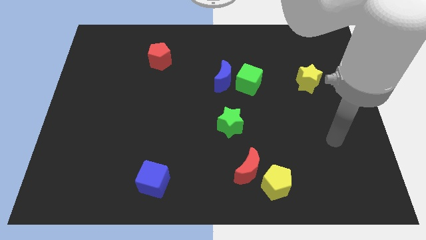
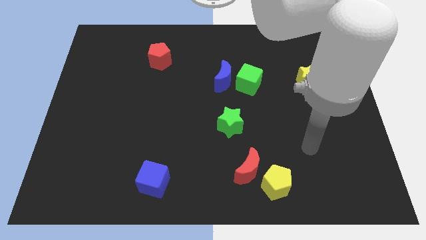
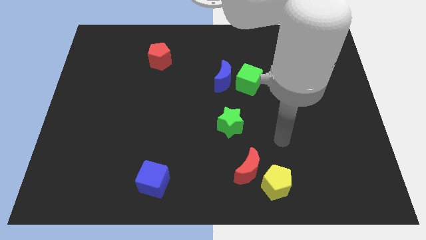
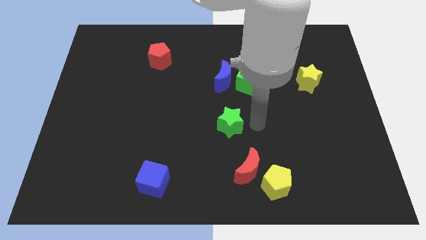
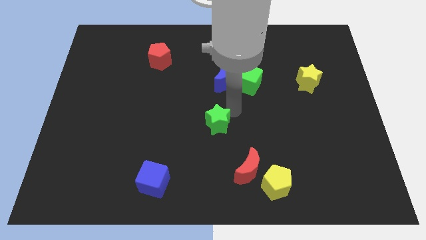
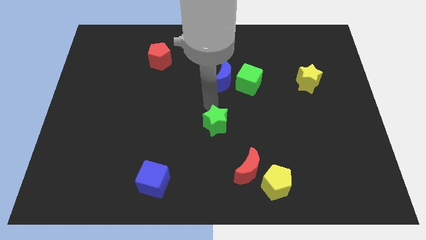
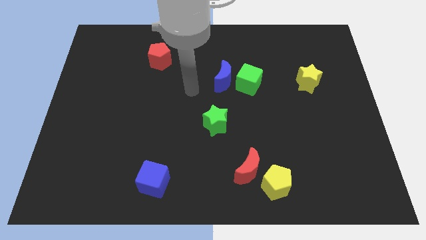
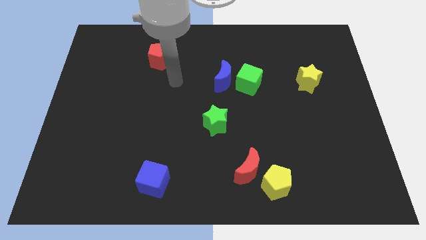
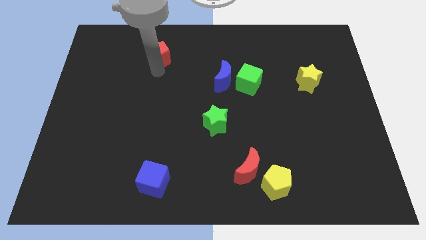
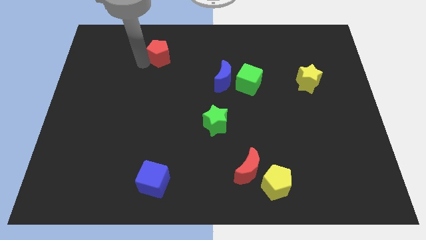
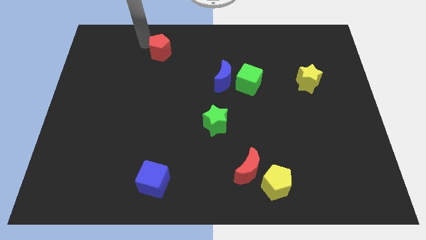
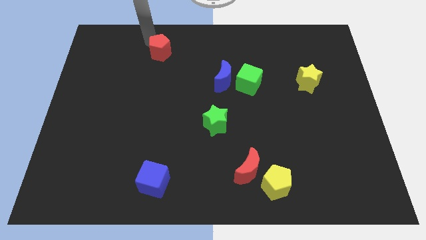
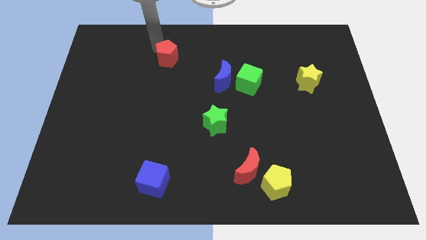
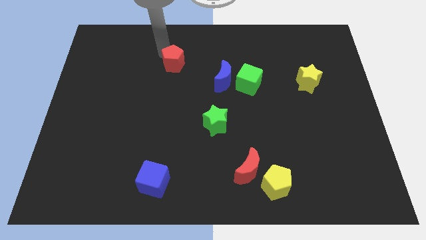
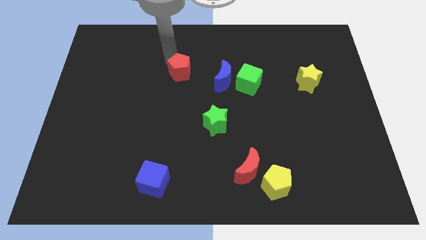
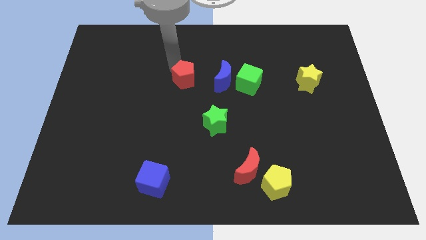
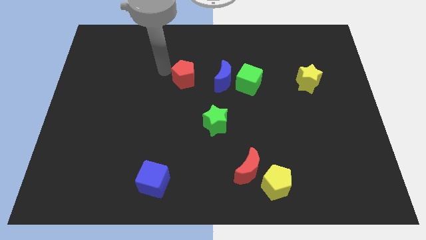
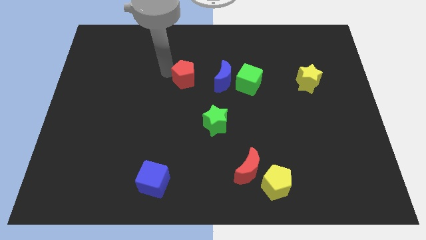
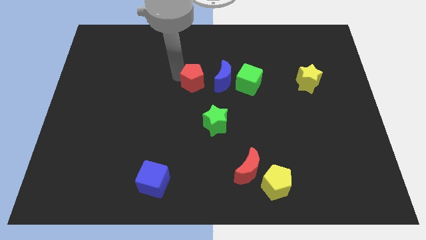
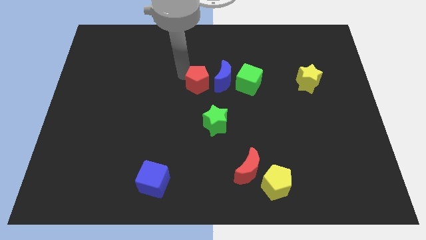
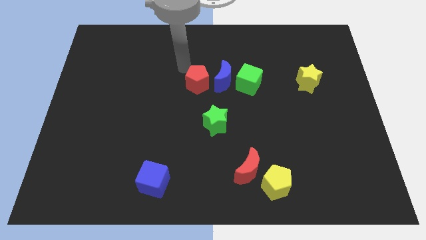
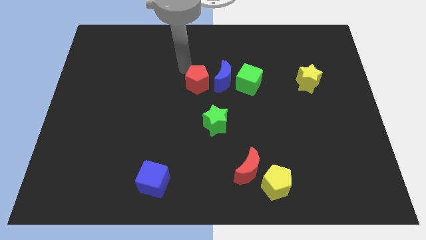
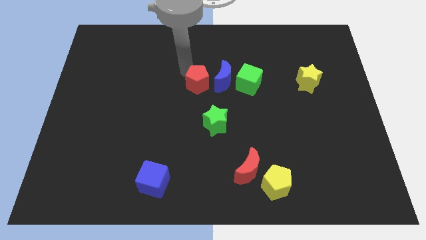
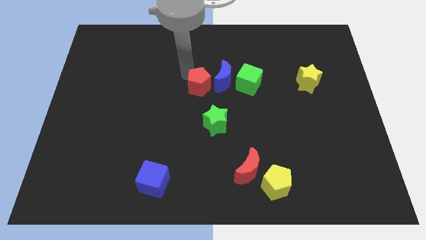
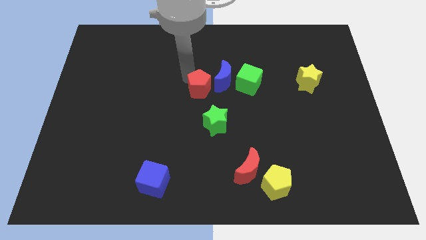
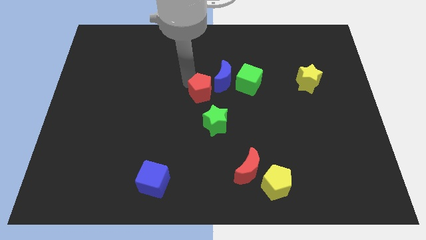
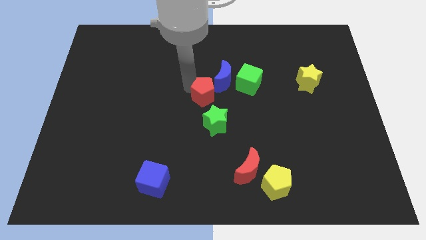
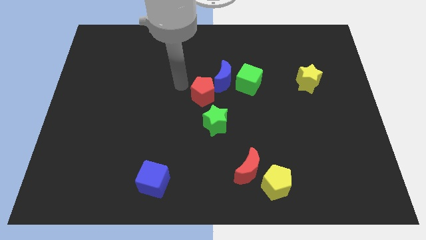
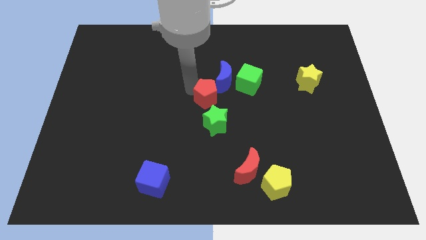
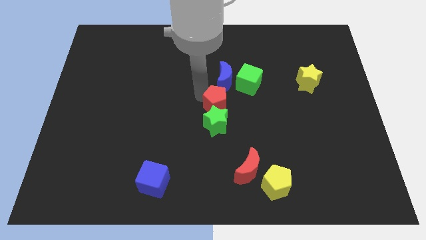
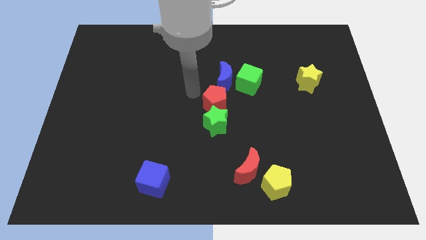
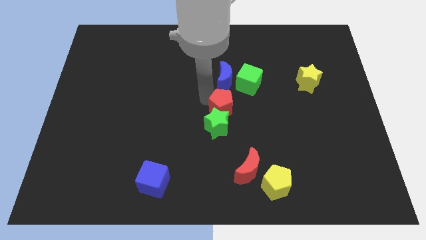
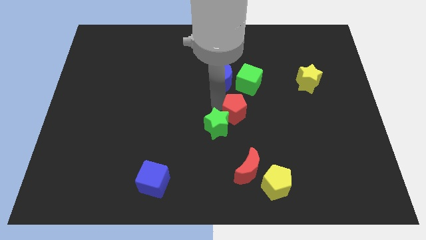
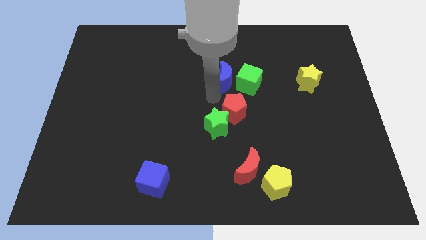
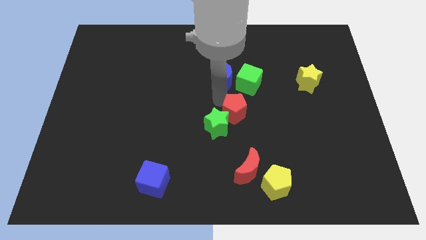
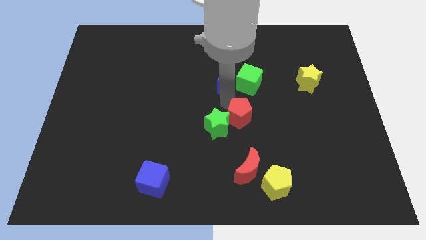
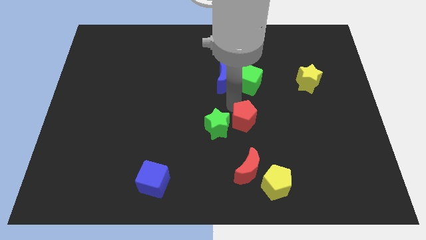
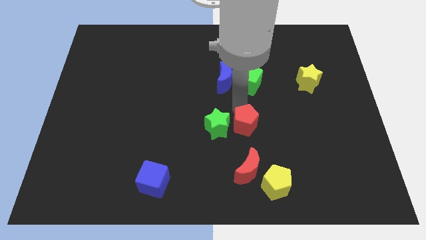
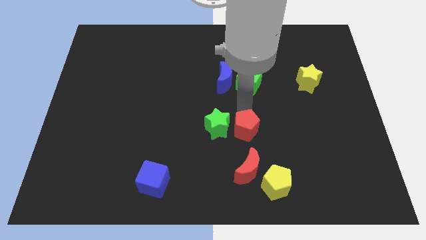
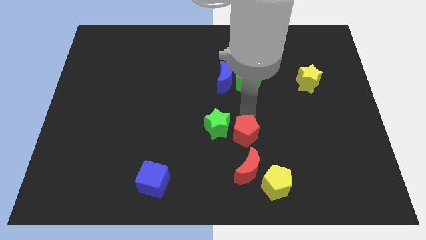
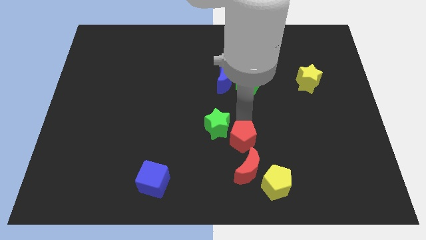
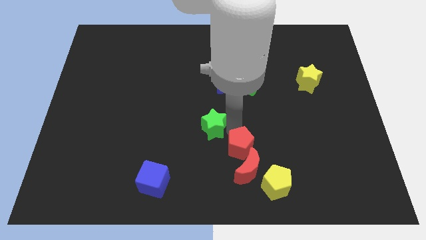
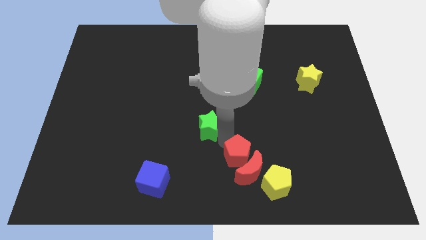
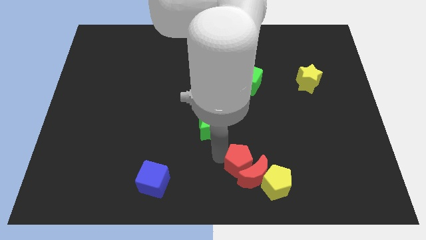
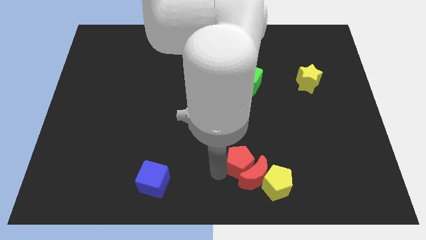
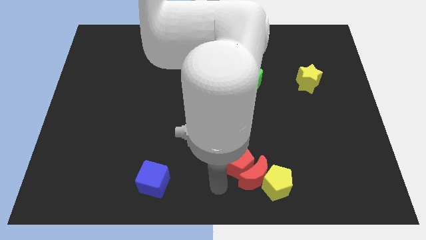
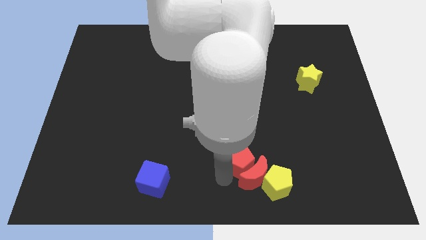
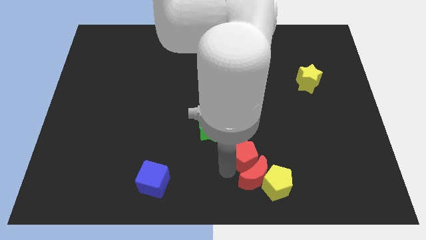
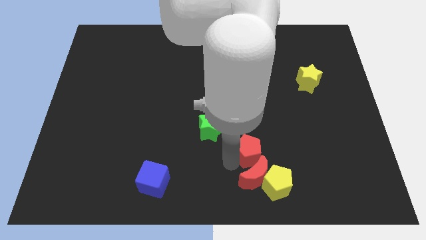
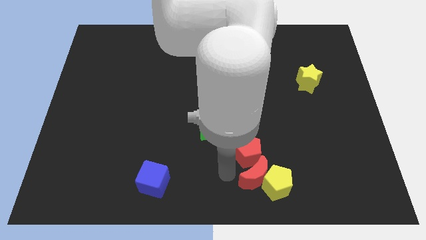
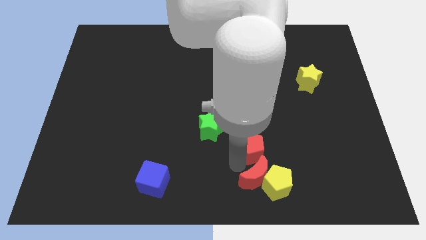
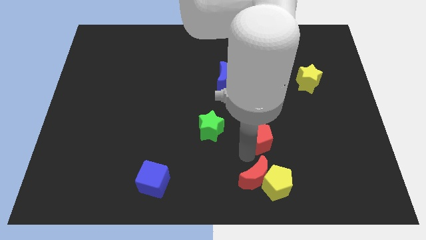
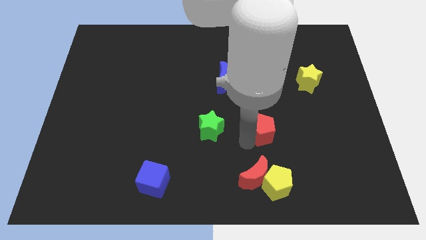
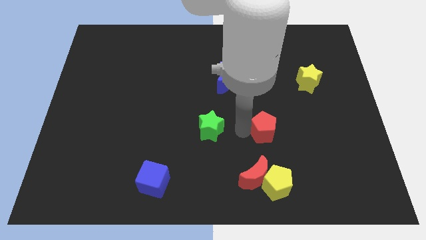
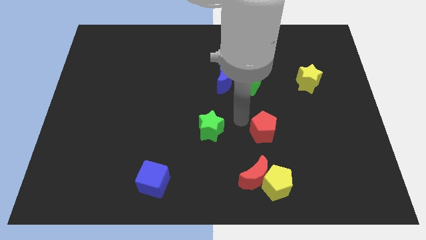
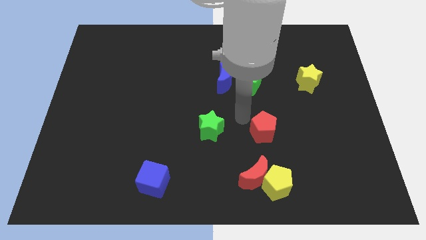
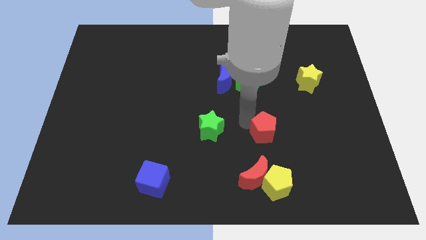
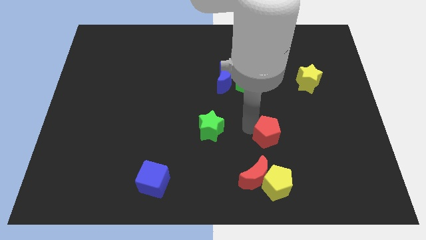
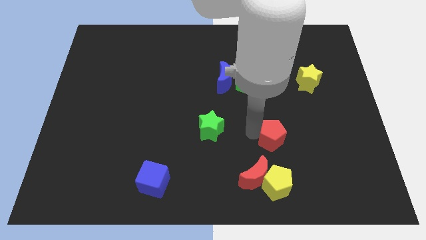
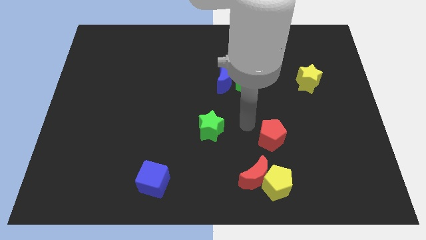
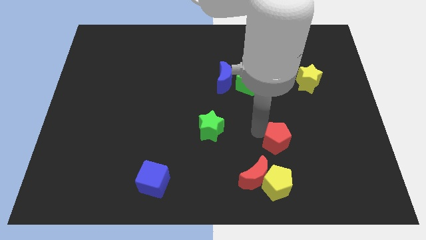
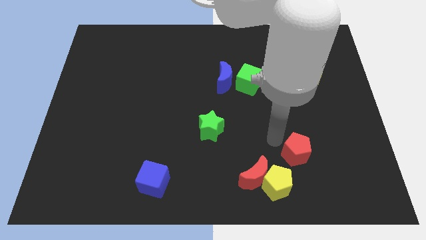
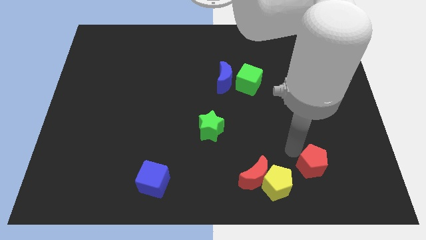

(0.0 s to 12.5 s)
put the red pentagon to the right of the yellow pentagon

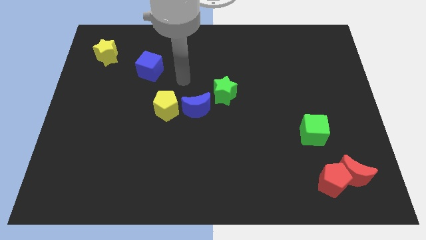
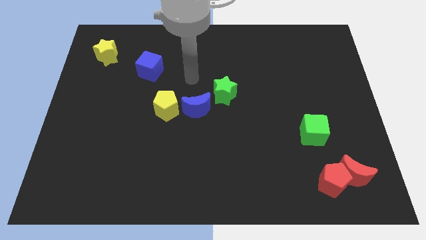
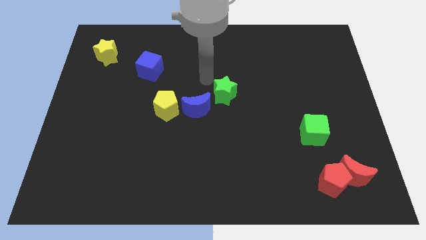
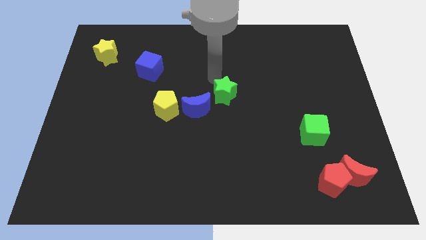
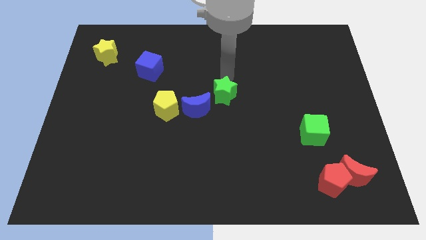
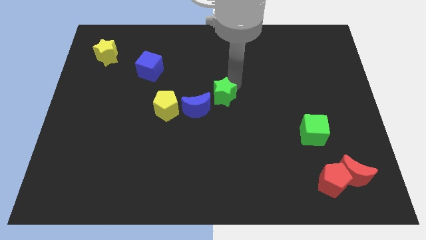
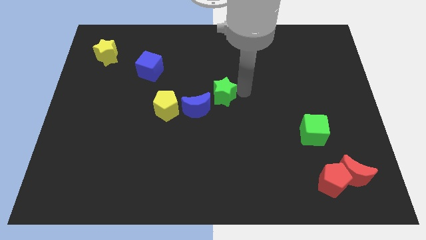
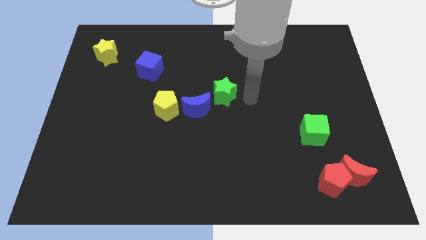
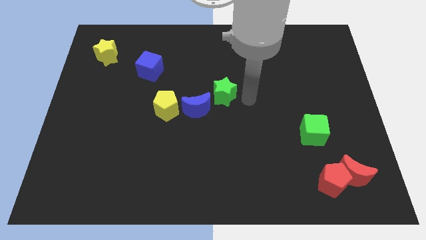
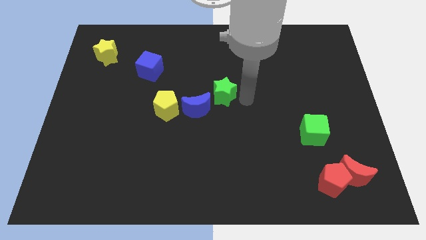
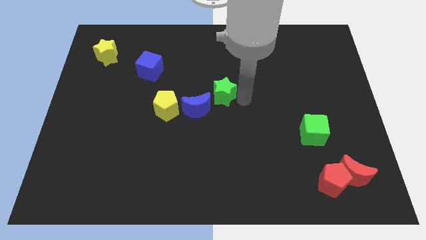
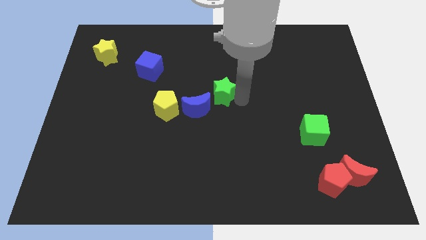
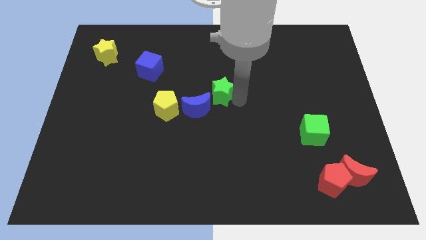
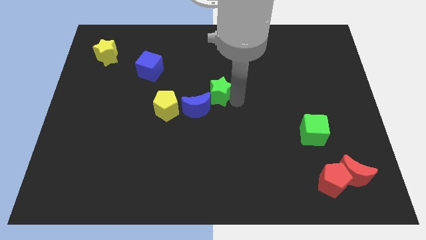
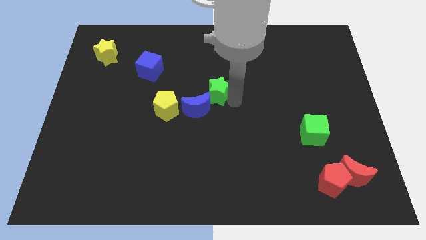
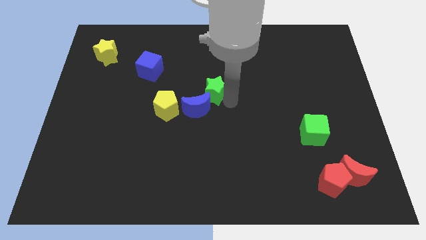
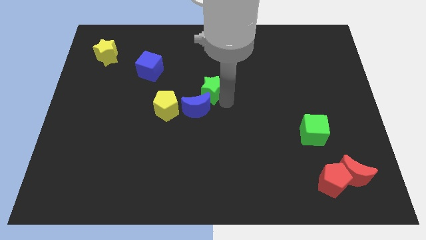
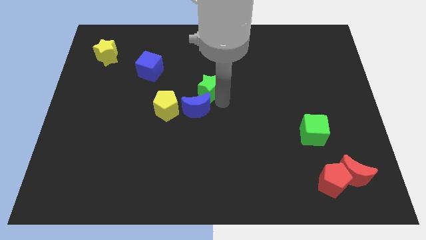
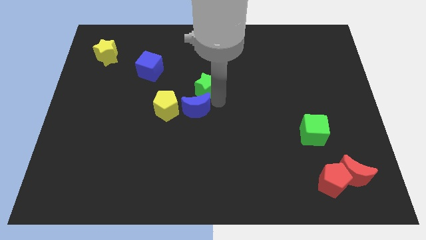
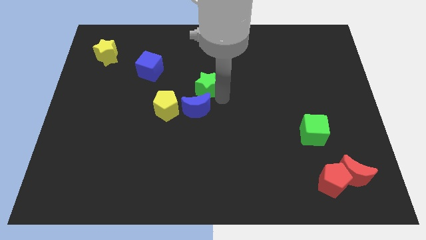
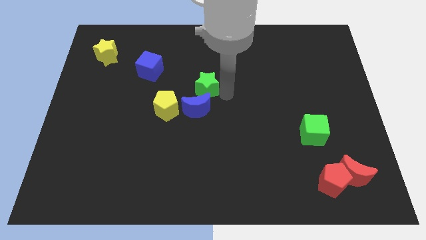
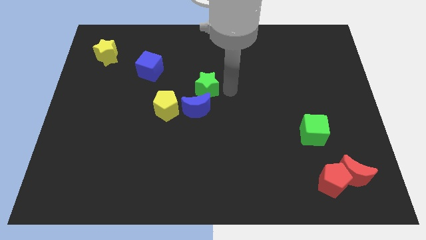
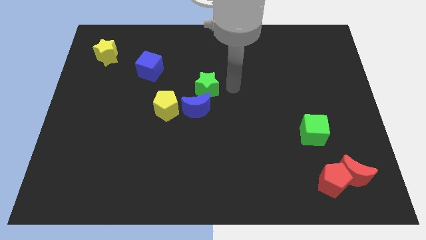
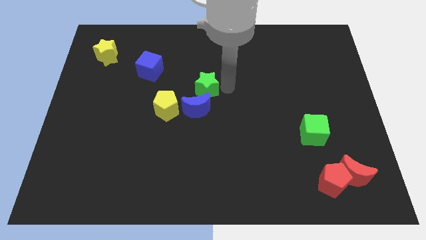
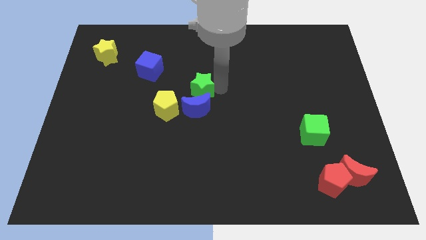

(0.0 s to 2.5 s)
move the green star to the top left of the blue moon
